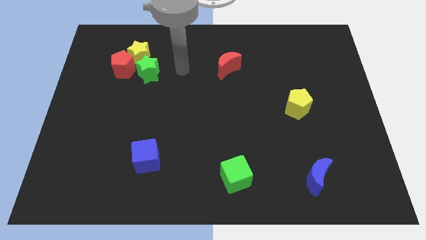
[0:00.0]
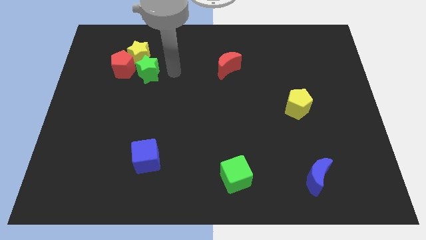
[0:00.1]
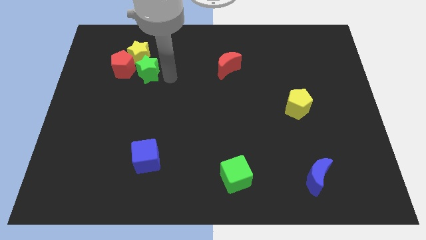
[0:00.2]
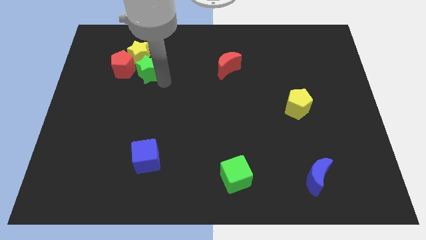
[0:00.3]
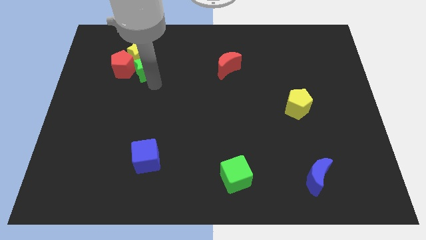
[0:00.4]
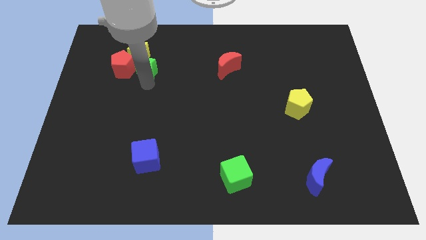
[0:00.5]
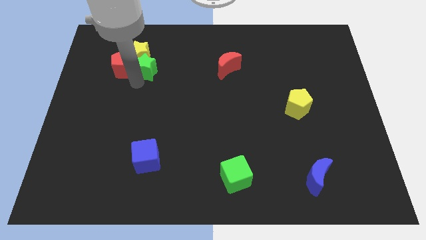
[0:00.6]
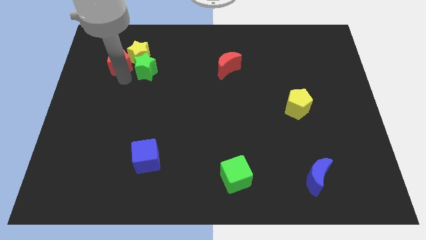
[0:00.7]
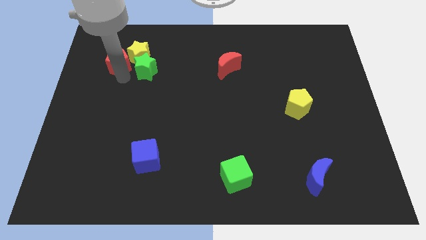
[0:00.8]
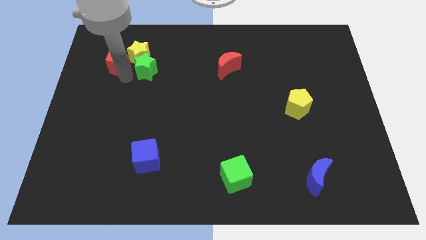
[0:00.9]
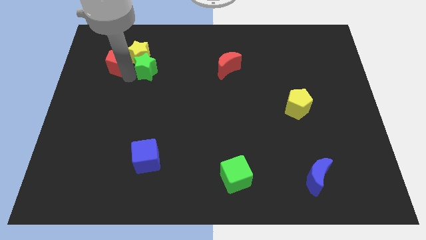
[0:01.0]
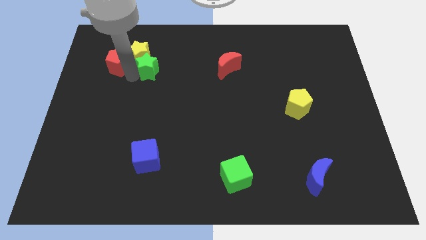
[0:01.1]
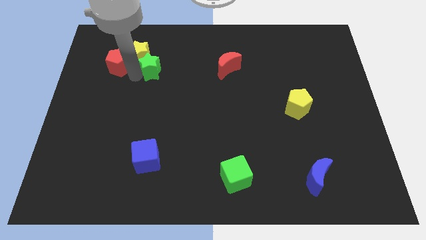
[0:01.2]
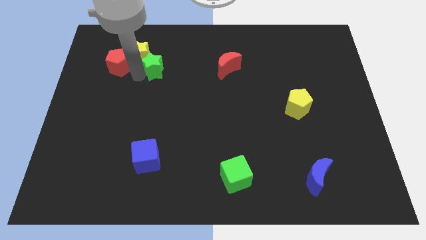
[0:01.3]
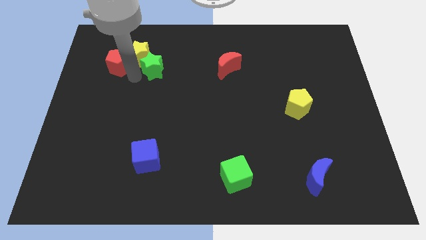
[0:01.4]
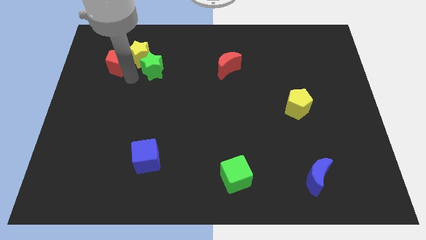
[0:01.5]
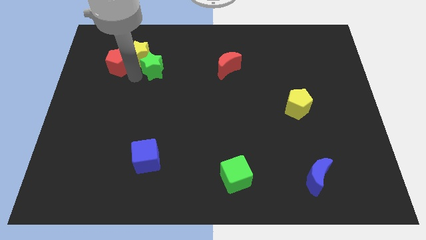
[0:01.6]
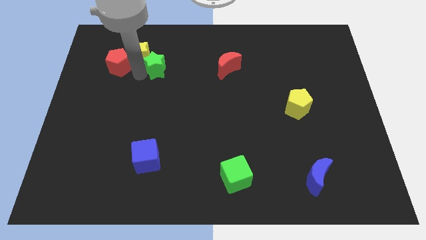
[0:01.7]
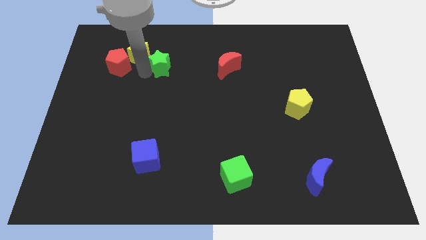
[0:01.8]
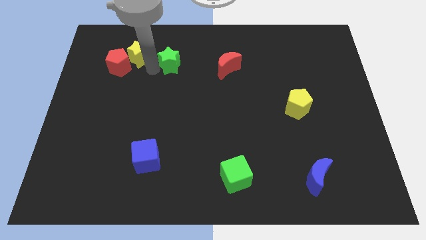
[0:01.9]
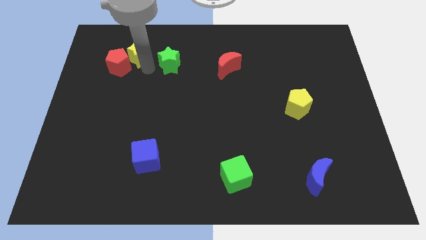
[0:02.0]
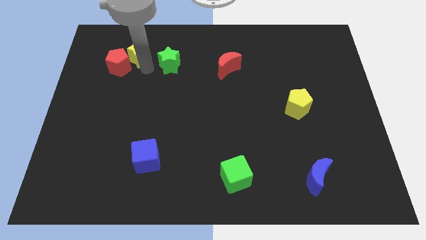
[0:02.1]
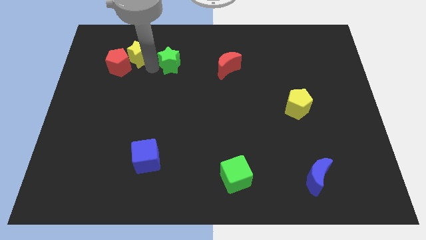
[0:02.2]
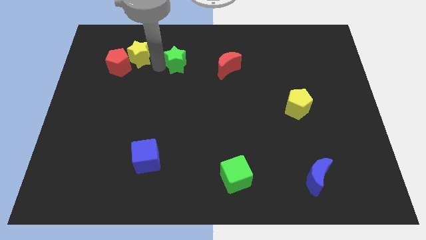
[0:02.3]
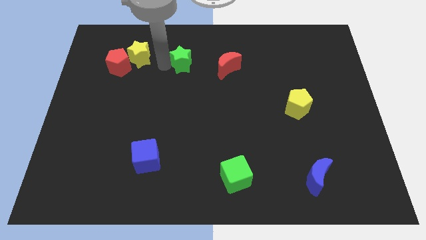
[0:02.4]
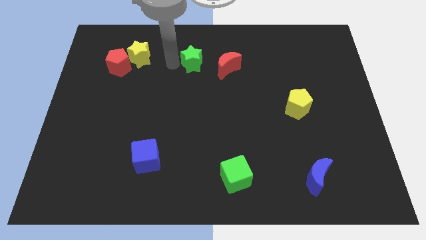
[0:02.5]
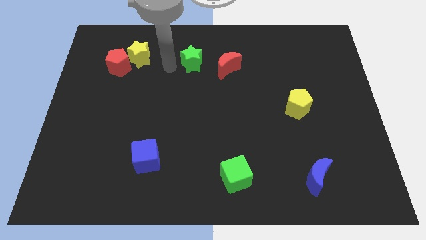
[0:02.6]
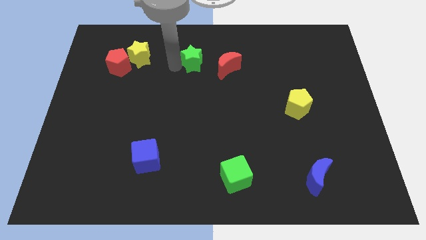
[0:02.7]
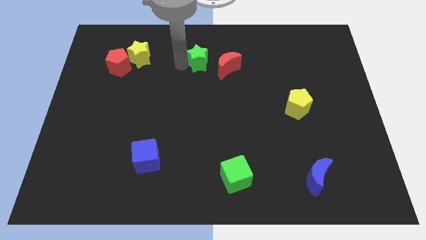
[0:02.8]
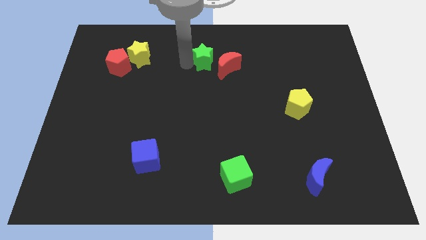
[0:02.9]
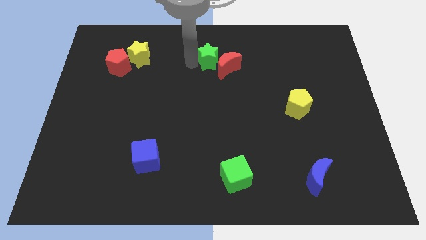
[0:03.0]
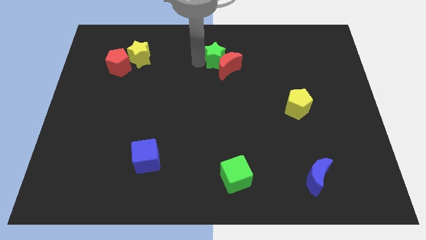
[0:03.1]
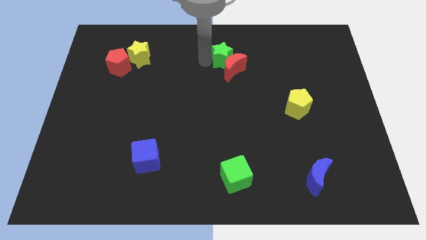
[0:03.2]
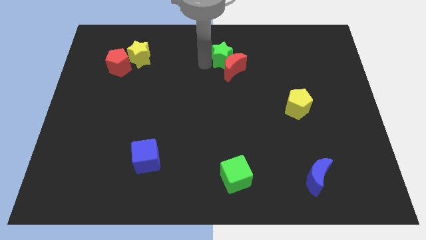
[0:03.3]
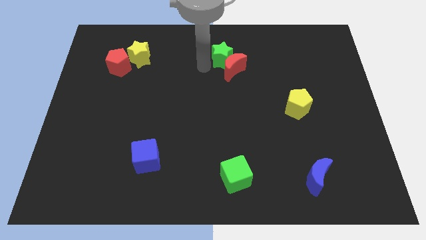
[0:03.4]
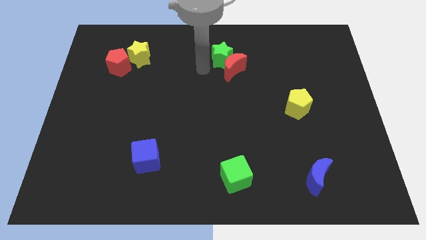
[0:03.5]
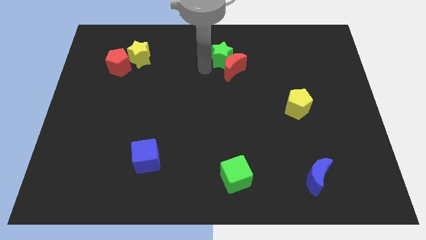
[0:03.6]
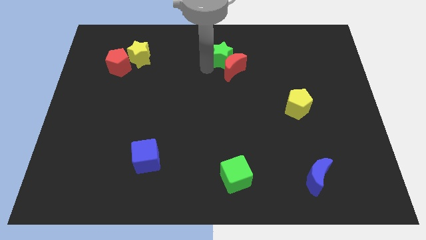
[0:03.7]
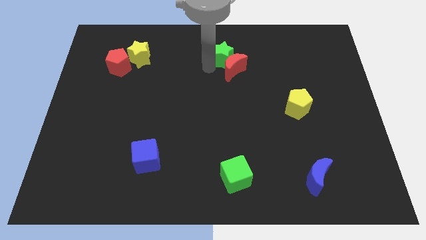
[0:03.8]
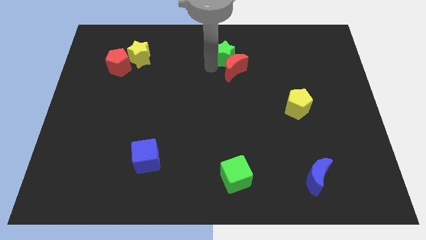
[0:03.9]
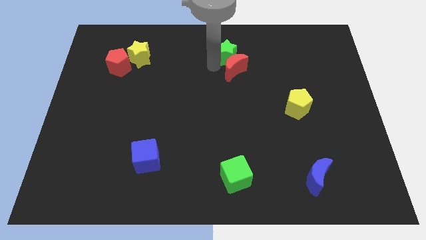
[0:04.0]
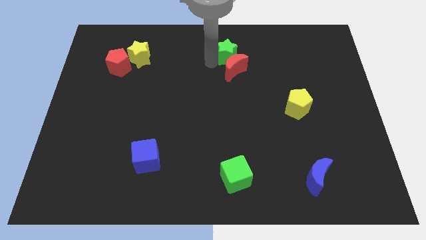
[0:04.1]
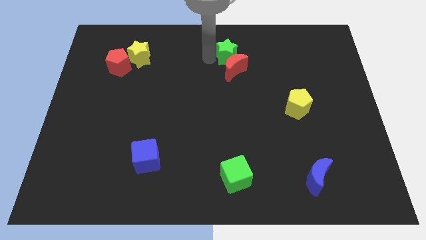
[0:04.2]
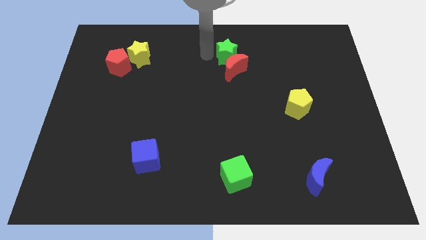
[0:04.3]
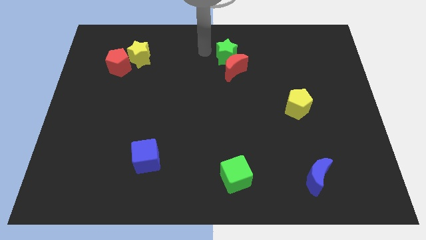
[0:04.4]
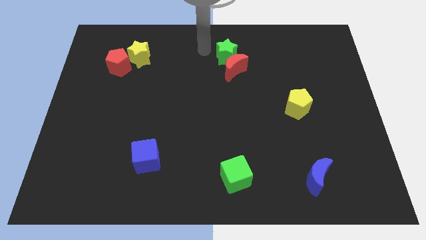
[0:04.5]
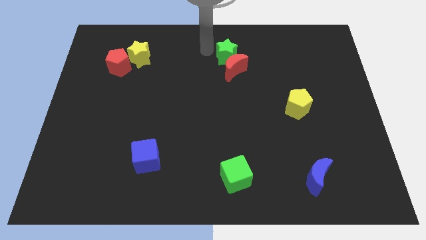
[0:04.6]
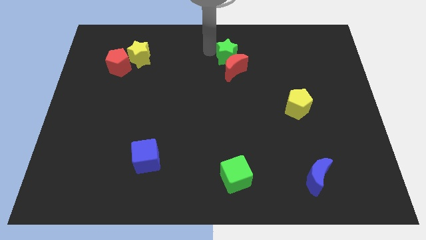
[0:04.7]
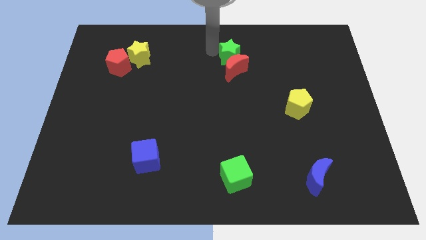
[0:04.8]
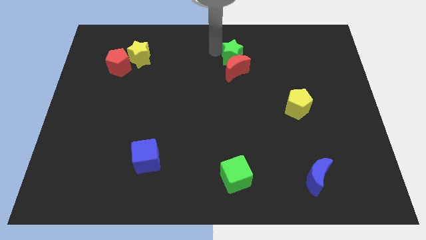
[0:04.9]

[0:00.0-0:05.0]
slide the green star right

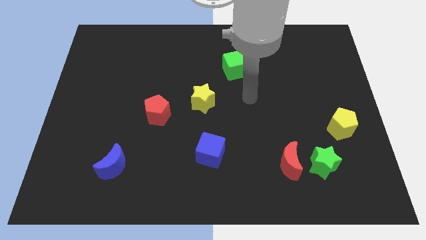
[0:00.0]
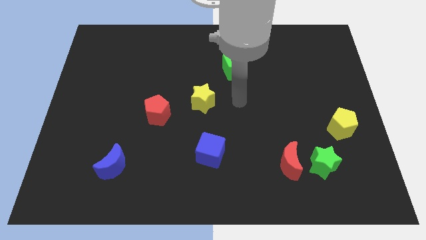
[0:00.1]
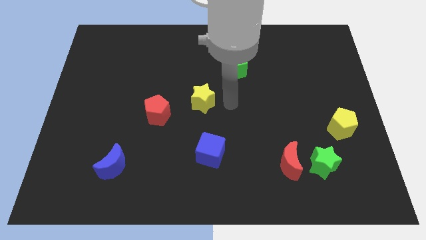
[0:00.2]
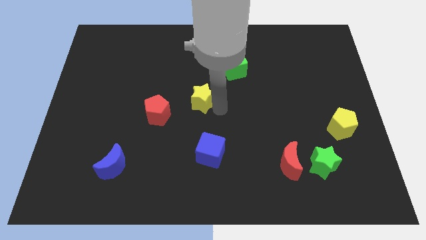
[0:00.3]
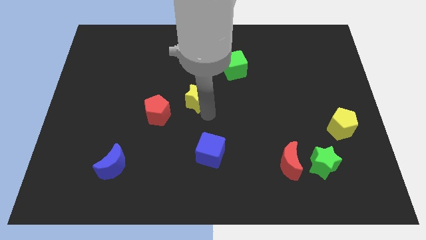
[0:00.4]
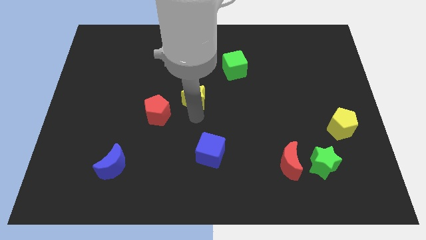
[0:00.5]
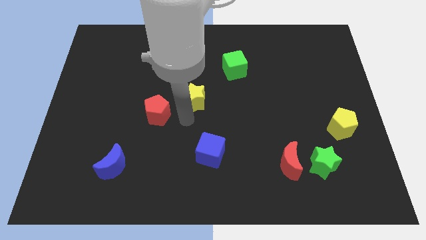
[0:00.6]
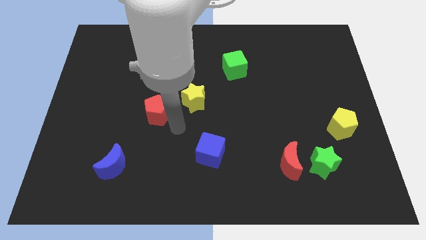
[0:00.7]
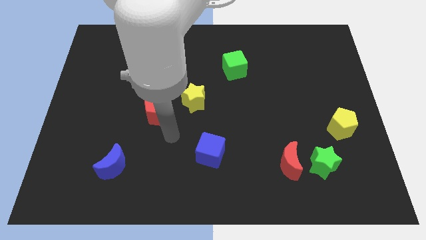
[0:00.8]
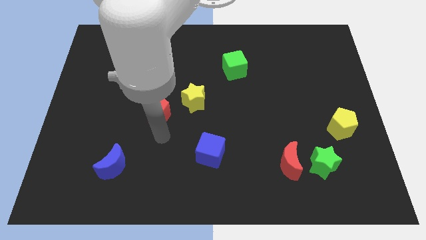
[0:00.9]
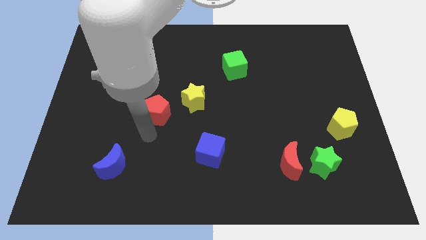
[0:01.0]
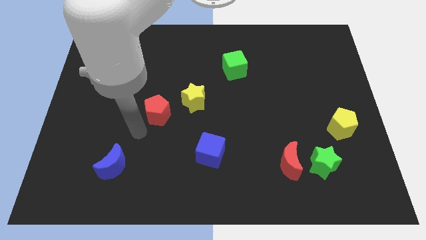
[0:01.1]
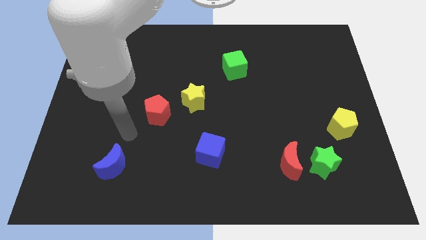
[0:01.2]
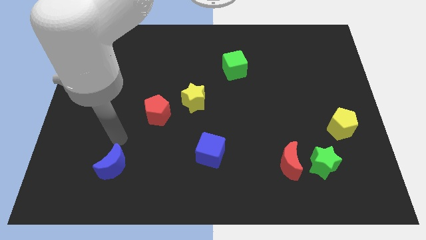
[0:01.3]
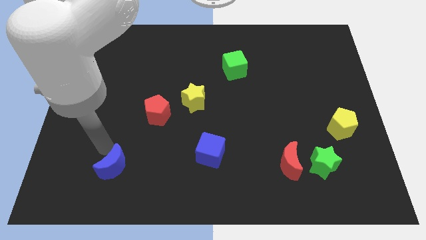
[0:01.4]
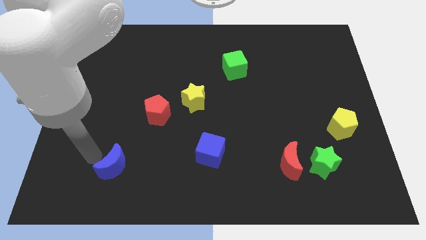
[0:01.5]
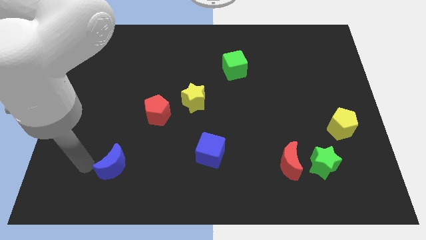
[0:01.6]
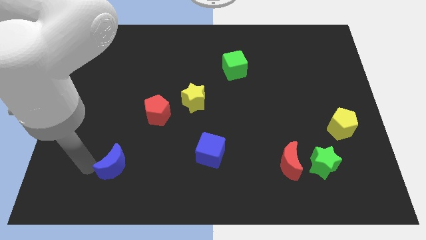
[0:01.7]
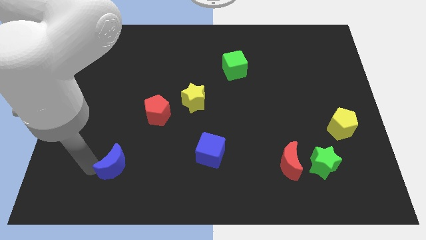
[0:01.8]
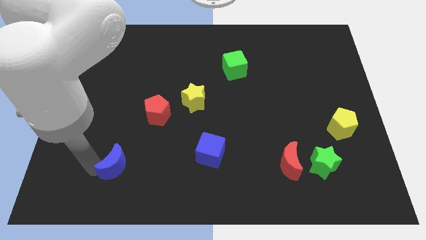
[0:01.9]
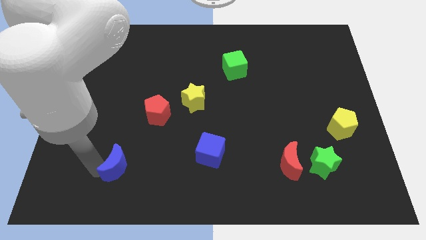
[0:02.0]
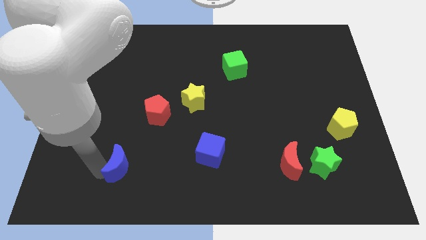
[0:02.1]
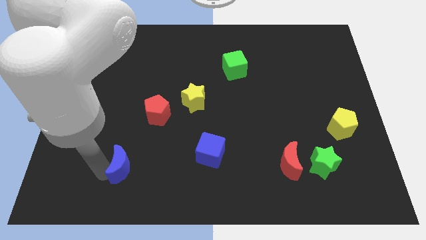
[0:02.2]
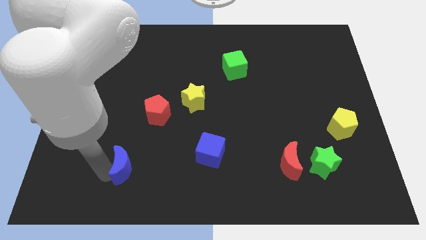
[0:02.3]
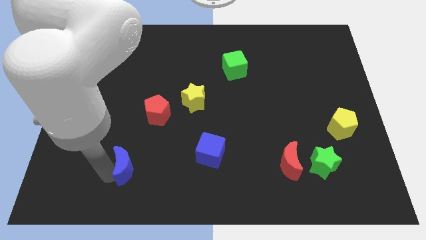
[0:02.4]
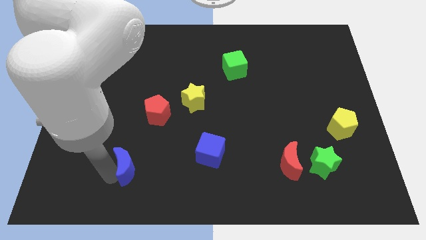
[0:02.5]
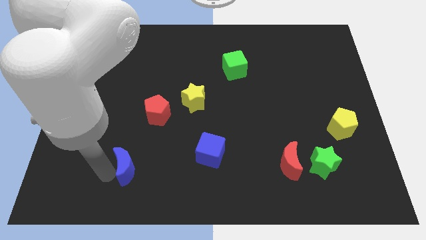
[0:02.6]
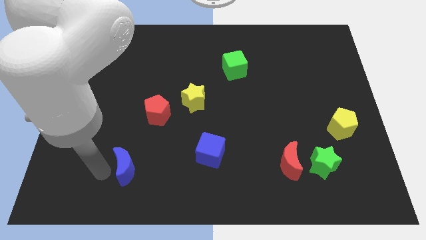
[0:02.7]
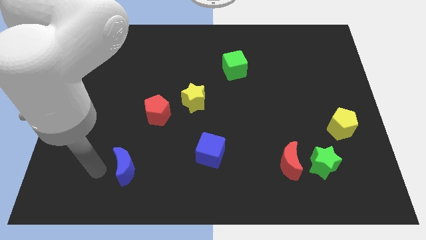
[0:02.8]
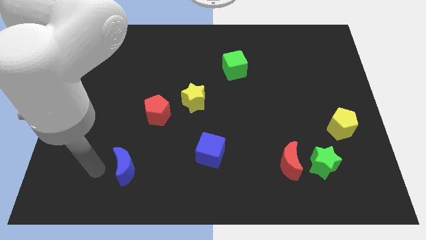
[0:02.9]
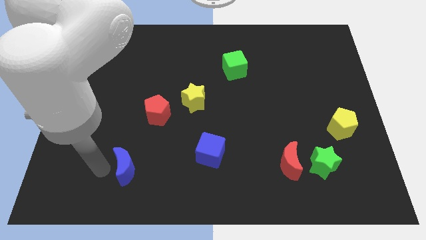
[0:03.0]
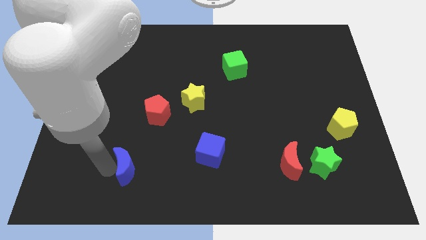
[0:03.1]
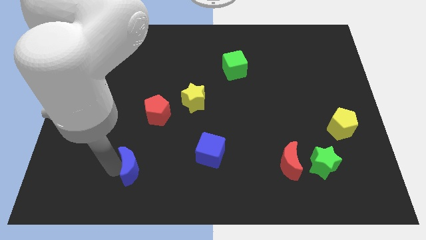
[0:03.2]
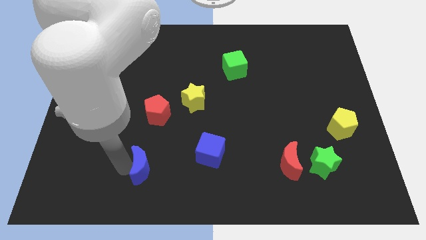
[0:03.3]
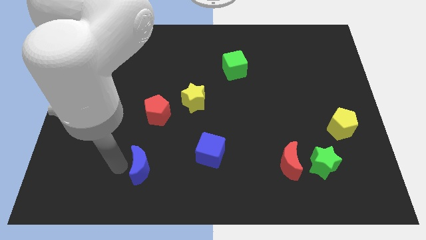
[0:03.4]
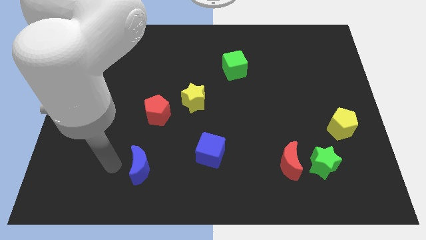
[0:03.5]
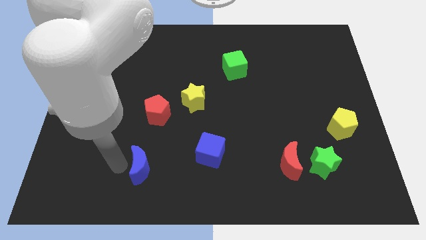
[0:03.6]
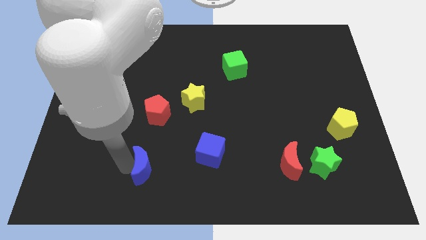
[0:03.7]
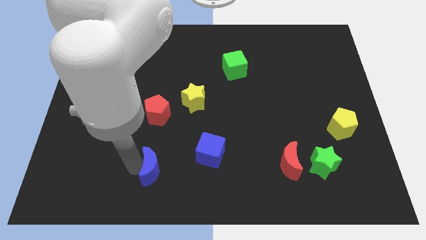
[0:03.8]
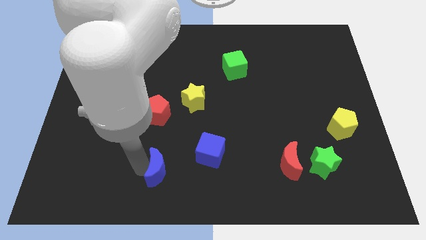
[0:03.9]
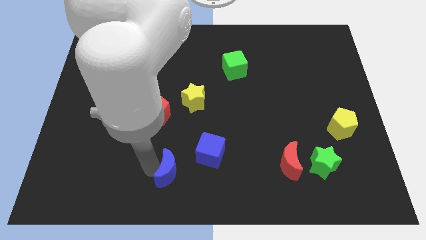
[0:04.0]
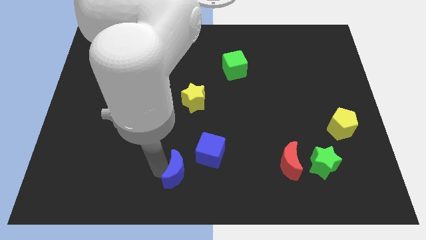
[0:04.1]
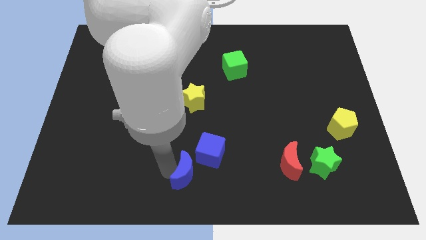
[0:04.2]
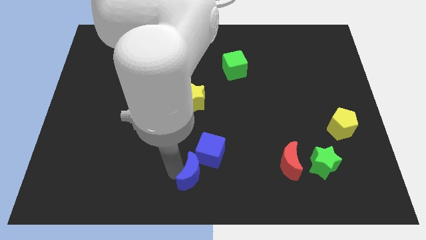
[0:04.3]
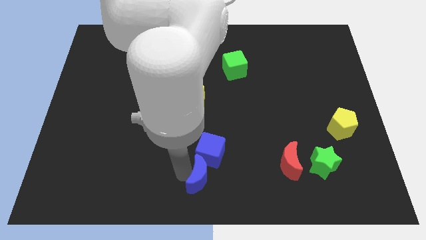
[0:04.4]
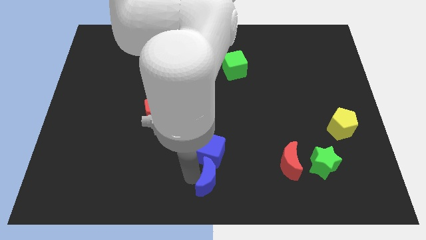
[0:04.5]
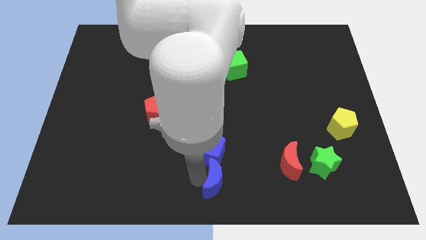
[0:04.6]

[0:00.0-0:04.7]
move the blue moon right
